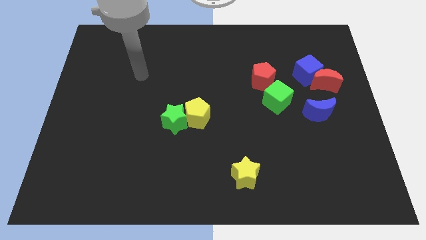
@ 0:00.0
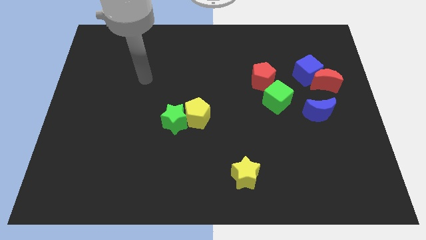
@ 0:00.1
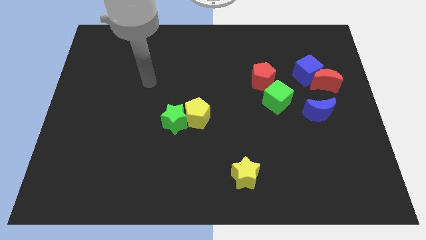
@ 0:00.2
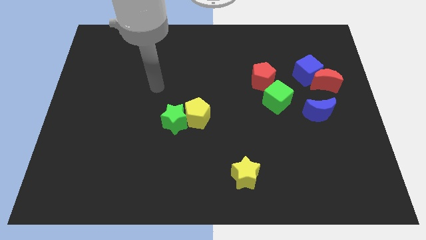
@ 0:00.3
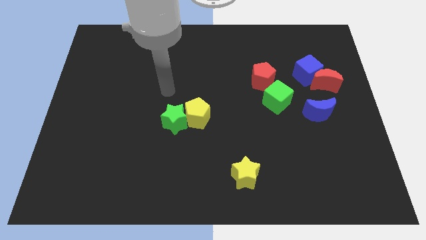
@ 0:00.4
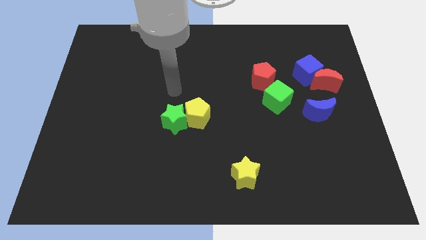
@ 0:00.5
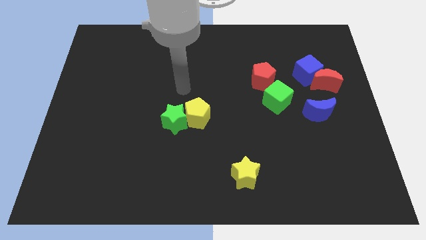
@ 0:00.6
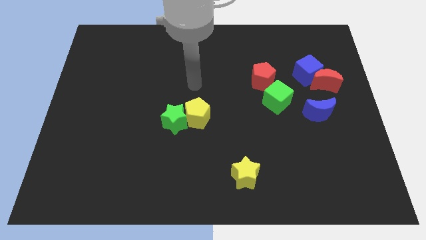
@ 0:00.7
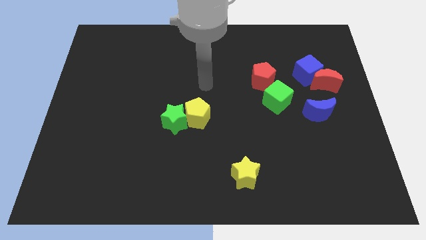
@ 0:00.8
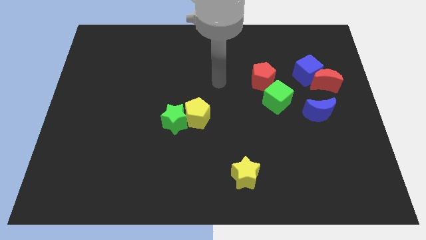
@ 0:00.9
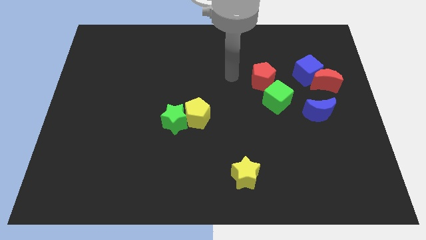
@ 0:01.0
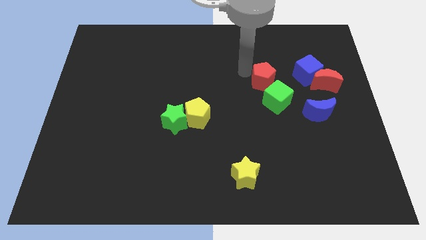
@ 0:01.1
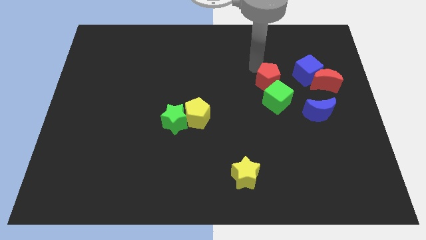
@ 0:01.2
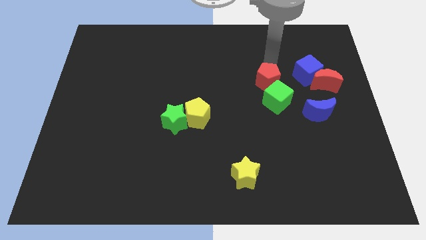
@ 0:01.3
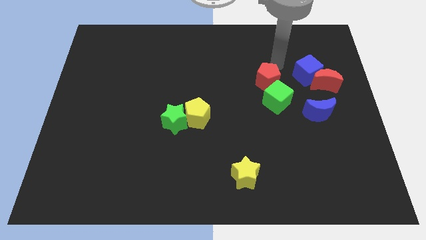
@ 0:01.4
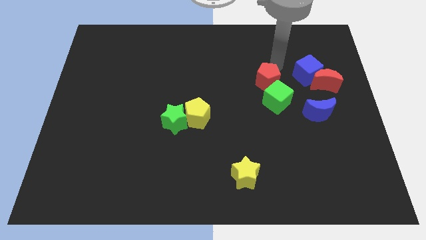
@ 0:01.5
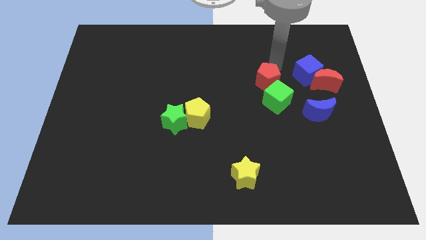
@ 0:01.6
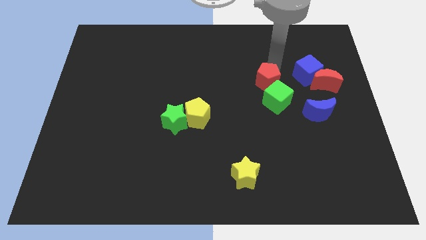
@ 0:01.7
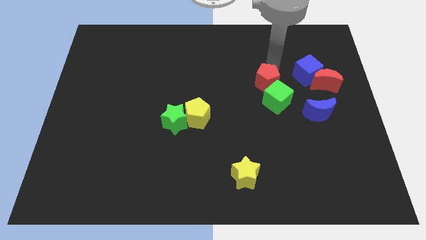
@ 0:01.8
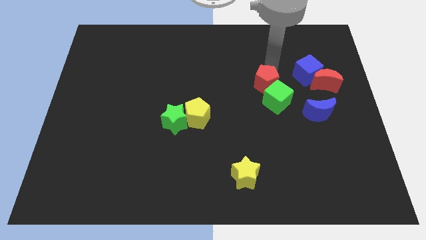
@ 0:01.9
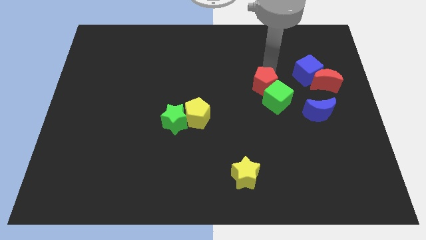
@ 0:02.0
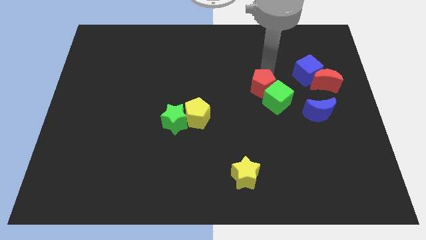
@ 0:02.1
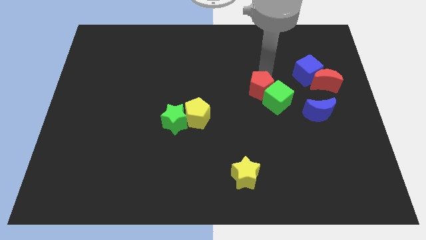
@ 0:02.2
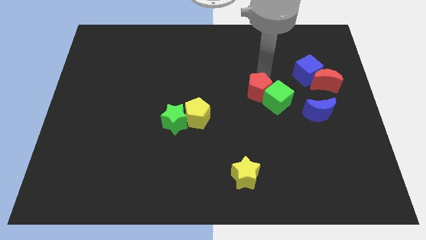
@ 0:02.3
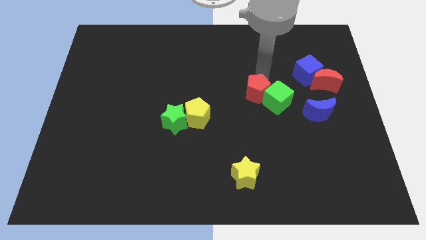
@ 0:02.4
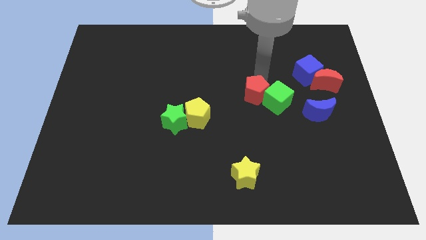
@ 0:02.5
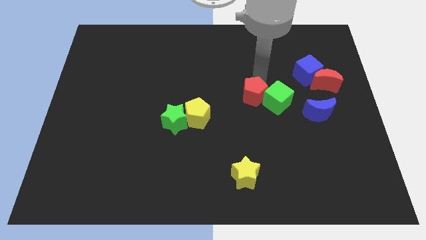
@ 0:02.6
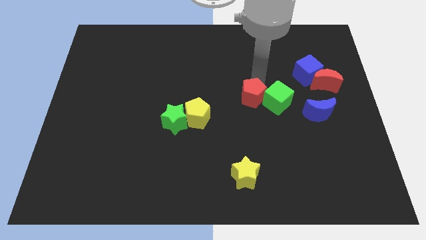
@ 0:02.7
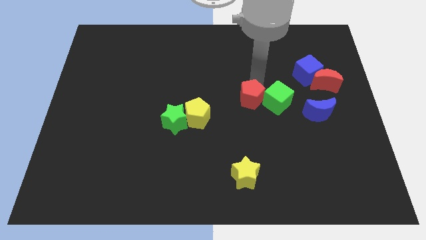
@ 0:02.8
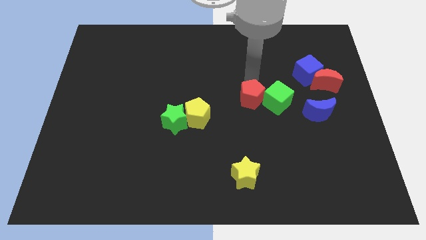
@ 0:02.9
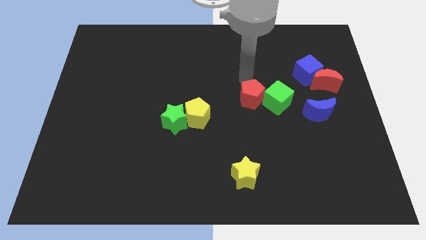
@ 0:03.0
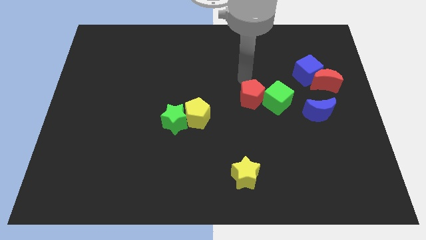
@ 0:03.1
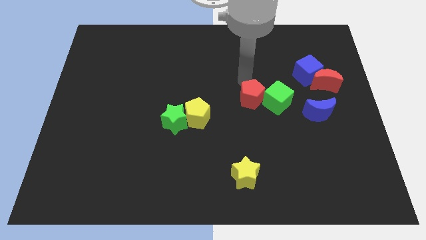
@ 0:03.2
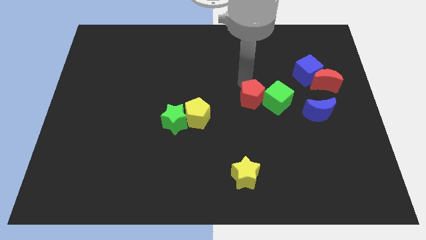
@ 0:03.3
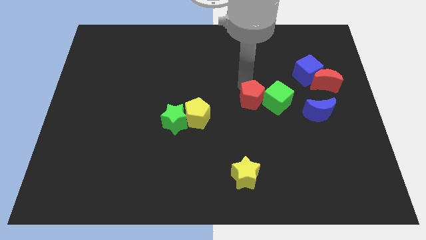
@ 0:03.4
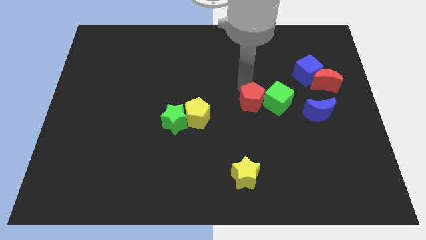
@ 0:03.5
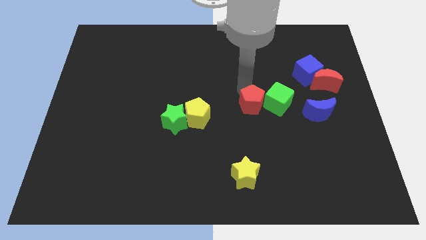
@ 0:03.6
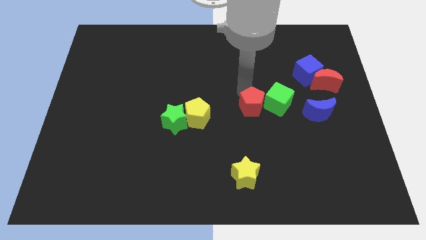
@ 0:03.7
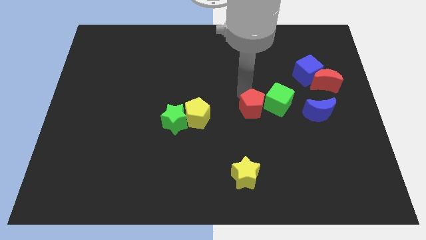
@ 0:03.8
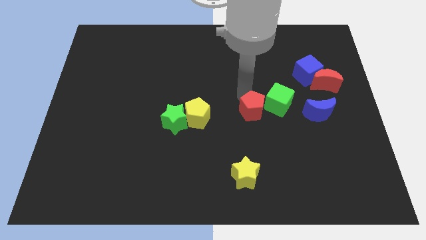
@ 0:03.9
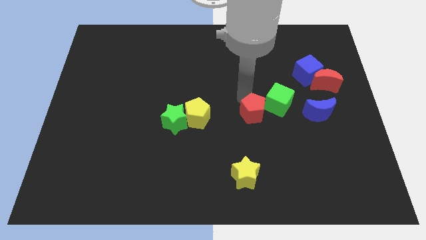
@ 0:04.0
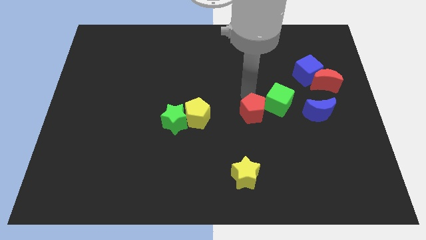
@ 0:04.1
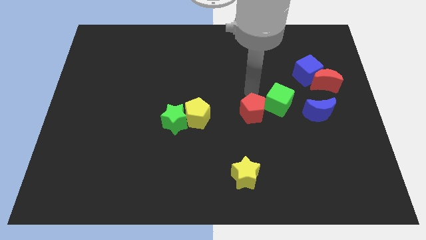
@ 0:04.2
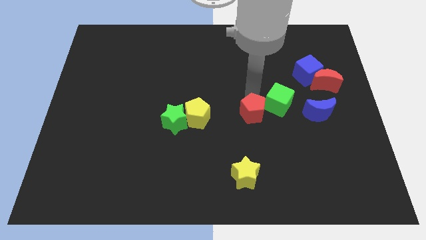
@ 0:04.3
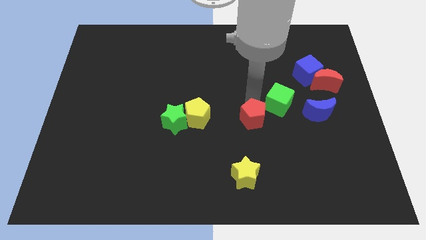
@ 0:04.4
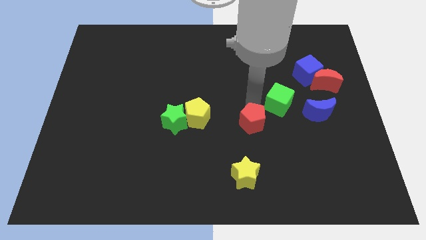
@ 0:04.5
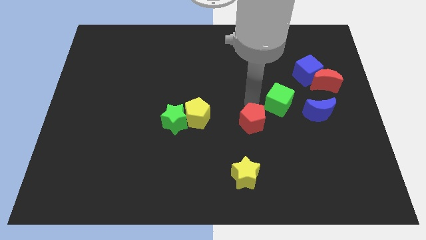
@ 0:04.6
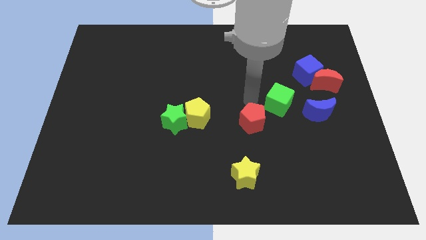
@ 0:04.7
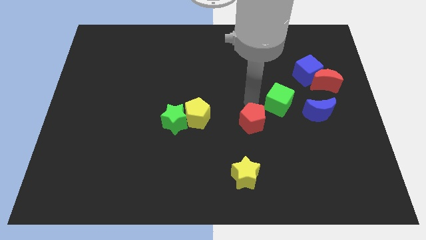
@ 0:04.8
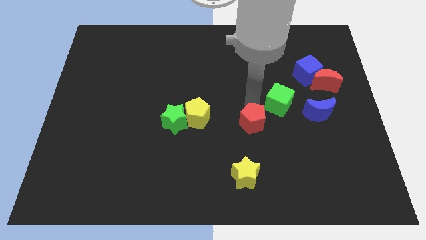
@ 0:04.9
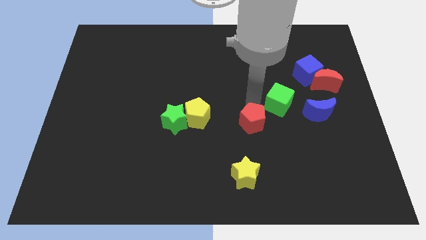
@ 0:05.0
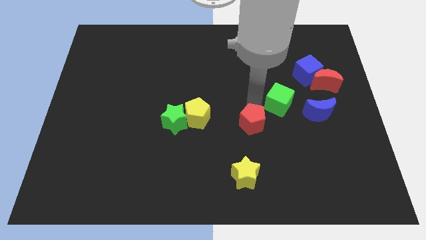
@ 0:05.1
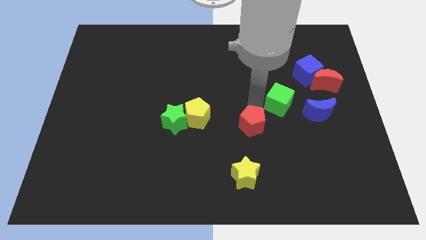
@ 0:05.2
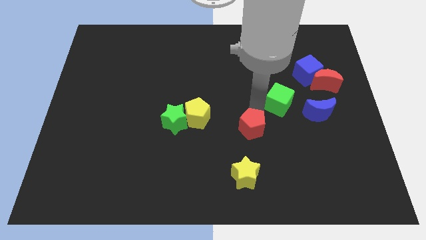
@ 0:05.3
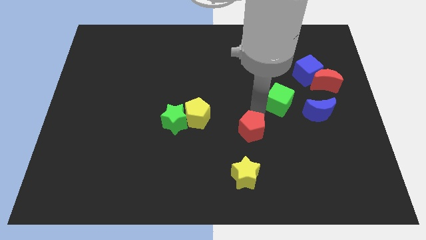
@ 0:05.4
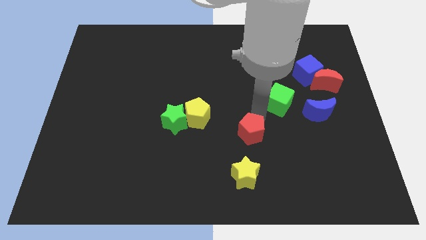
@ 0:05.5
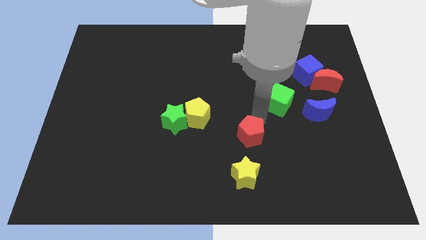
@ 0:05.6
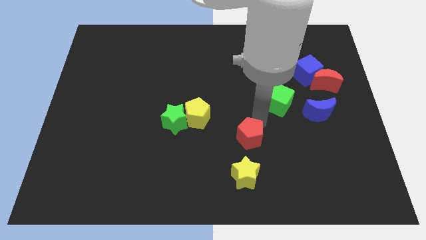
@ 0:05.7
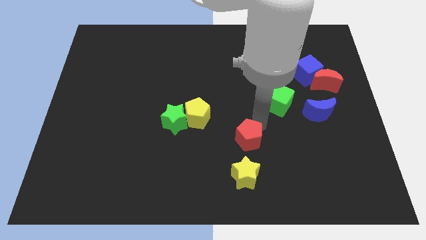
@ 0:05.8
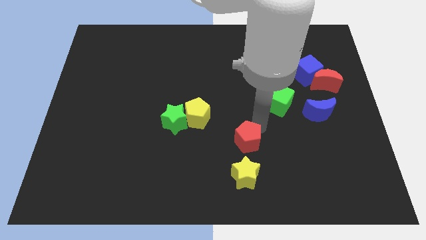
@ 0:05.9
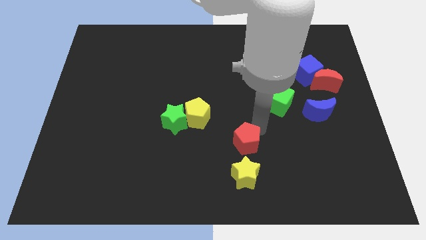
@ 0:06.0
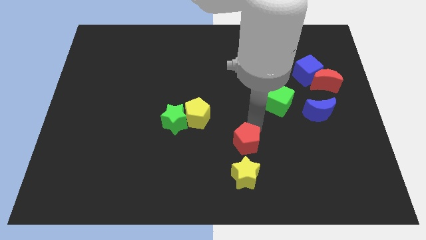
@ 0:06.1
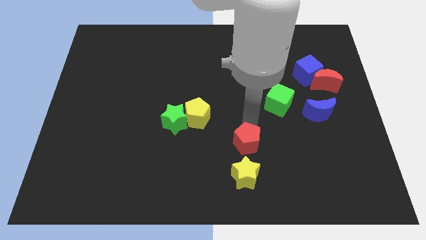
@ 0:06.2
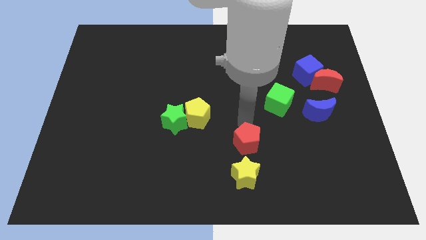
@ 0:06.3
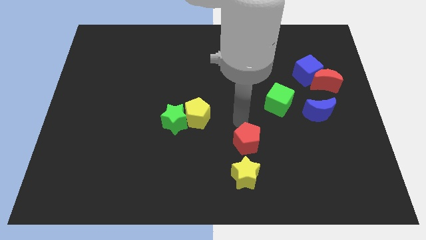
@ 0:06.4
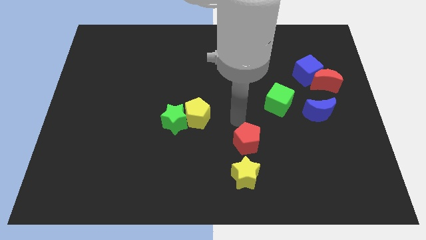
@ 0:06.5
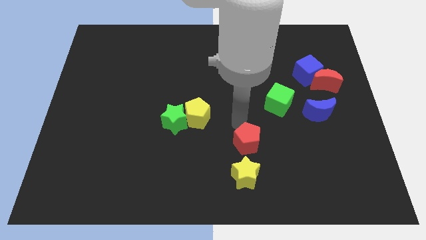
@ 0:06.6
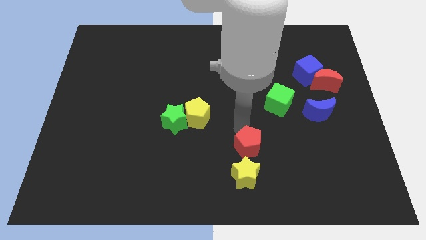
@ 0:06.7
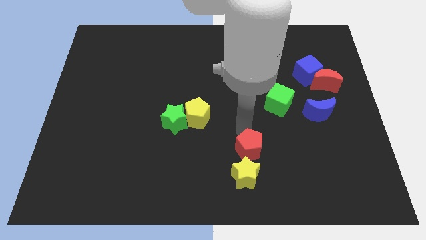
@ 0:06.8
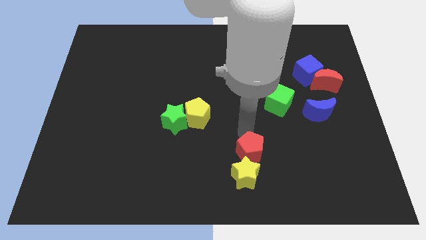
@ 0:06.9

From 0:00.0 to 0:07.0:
push the red pentagon to the yellow star
